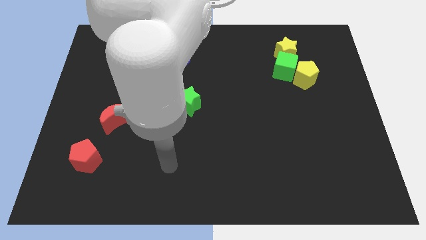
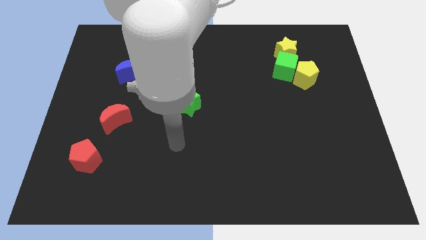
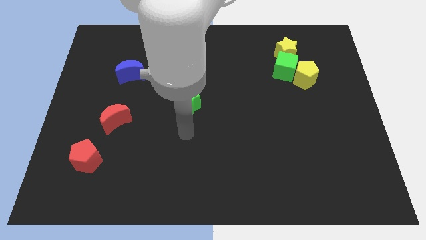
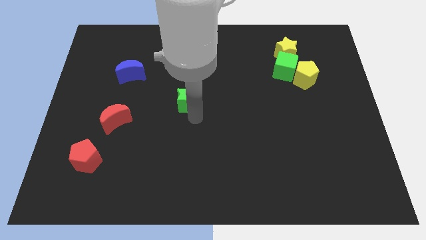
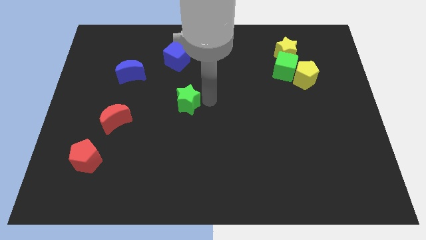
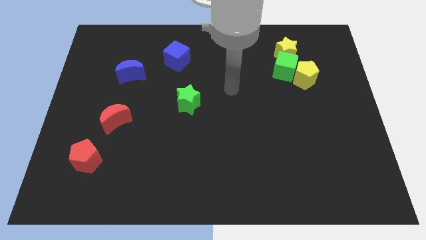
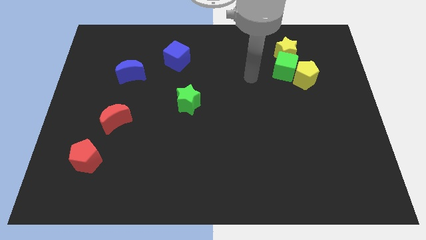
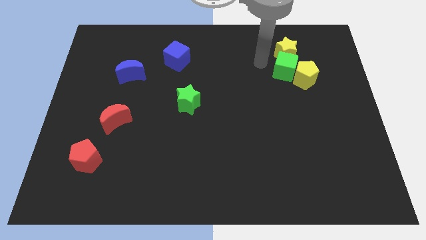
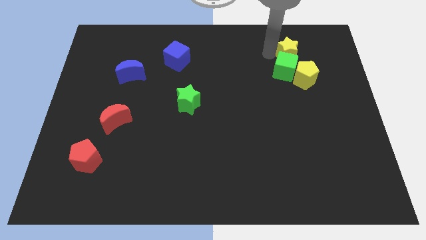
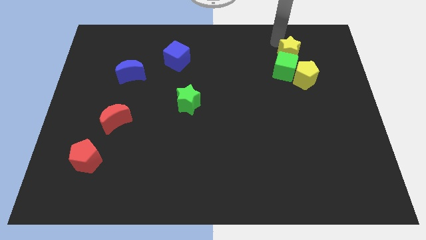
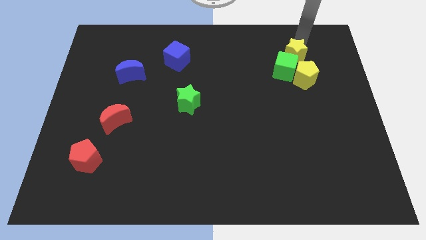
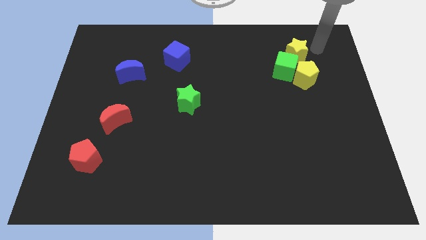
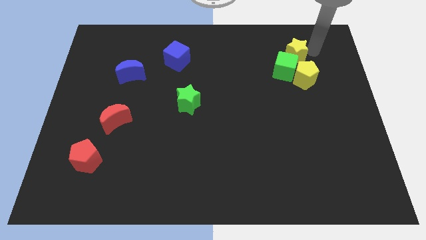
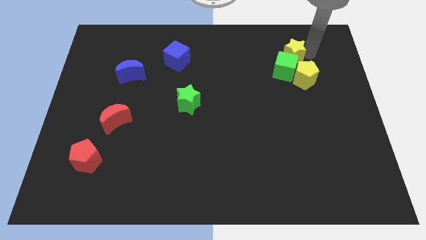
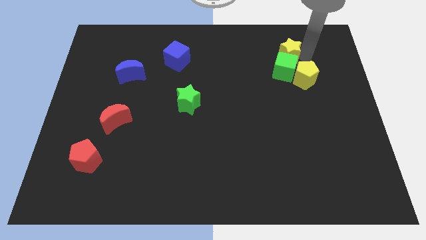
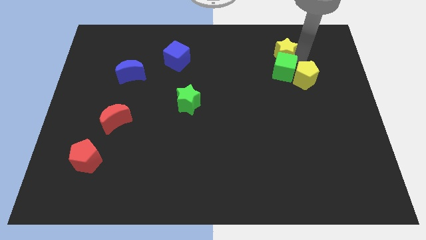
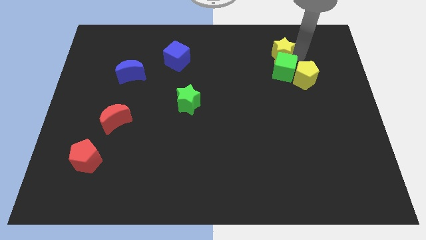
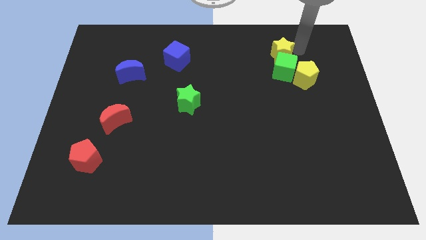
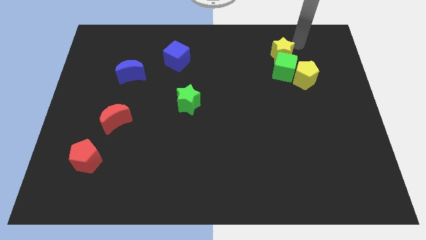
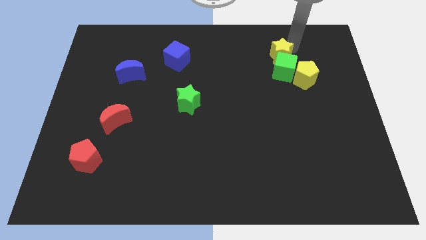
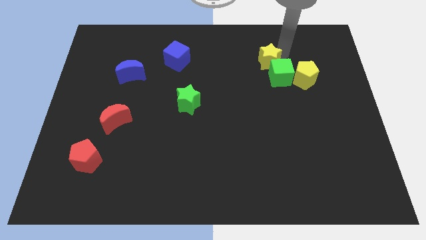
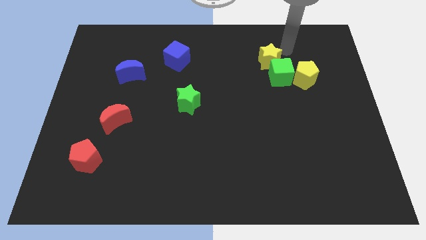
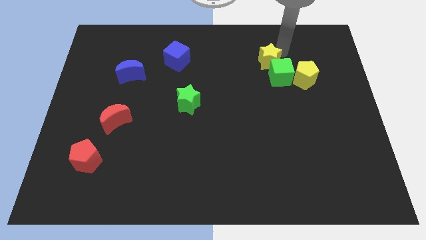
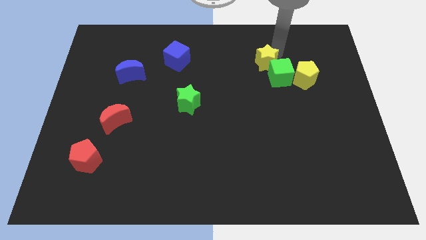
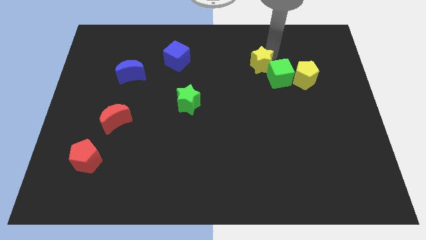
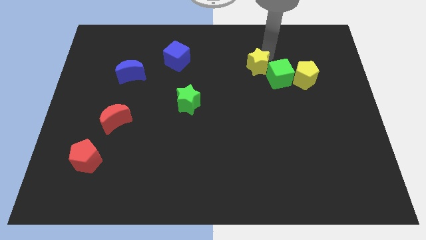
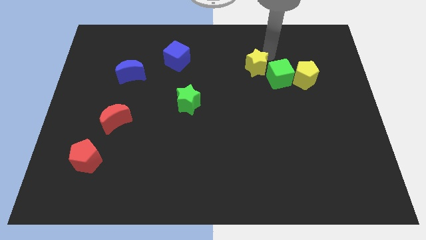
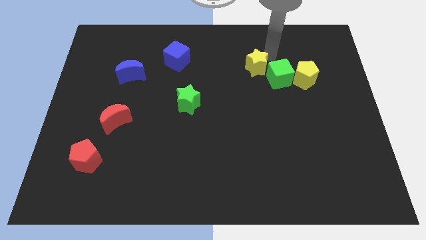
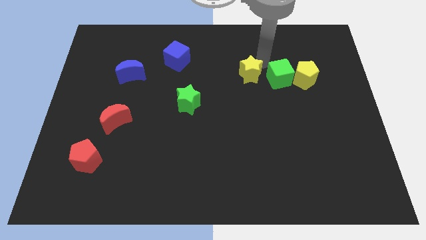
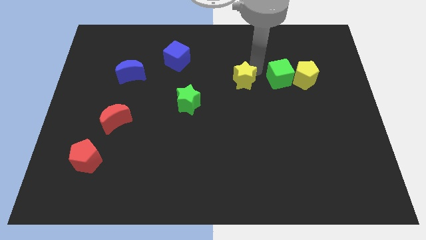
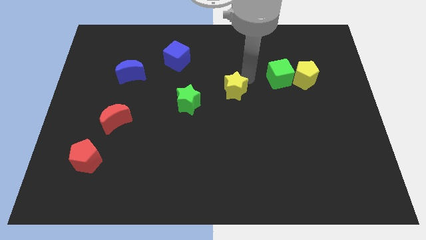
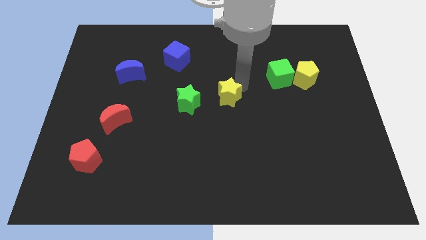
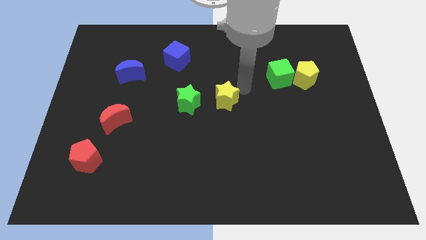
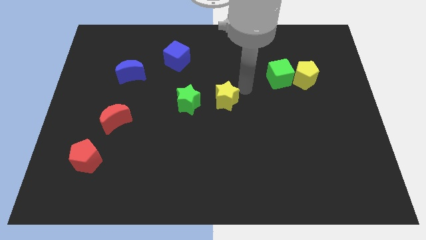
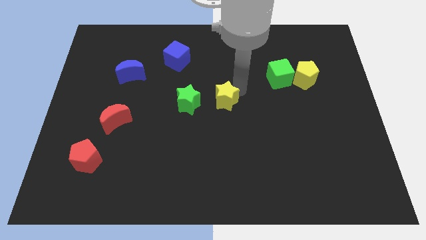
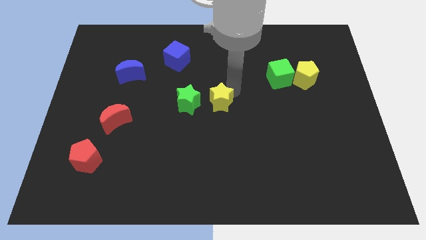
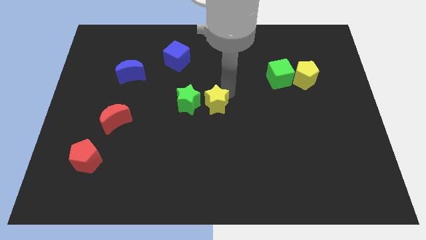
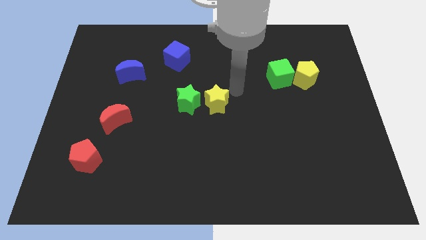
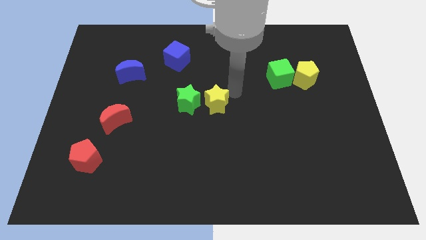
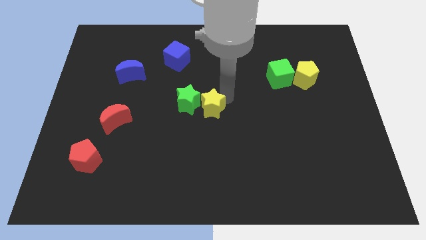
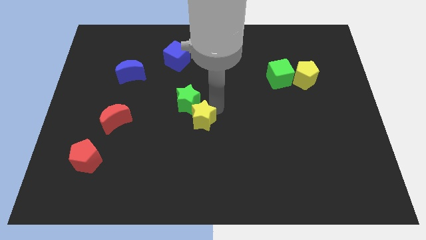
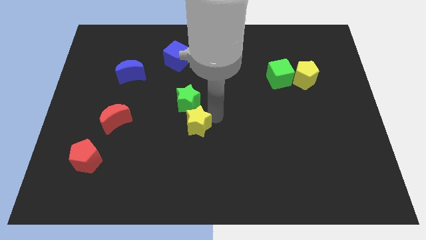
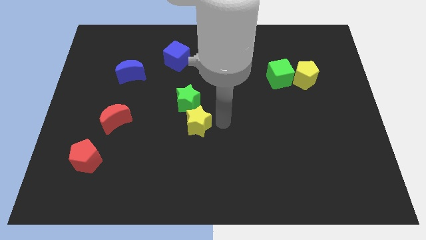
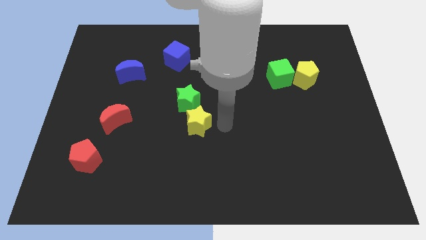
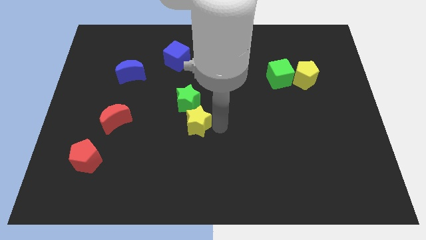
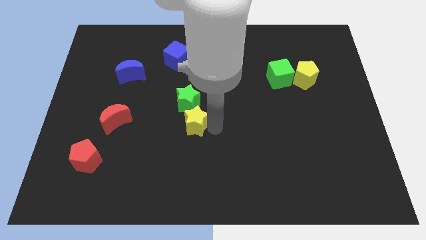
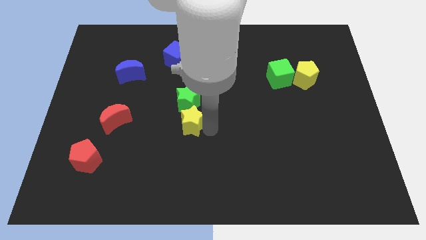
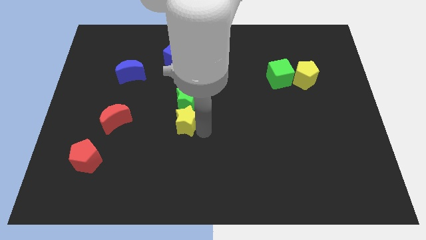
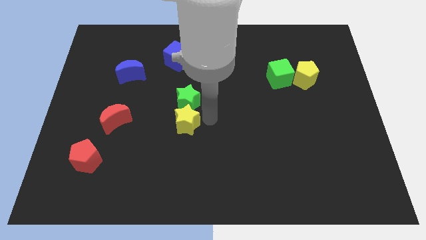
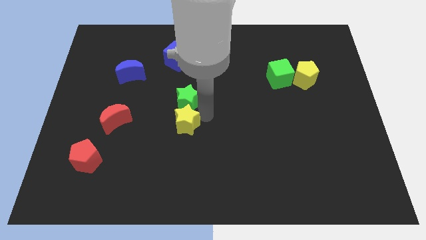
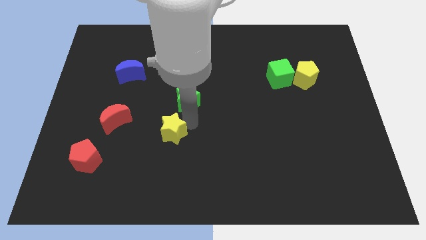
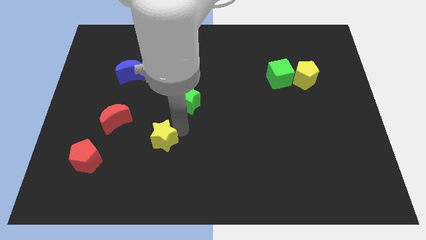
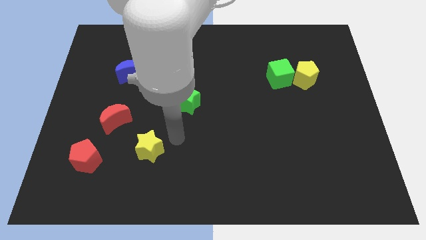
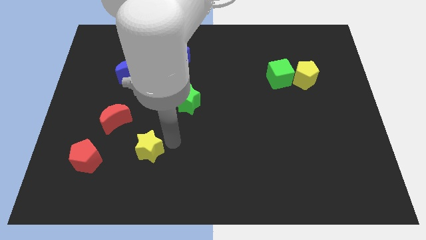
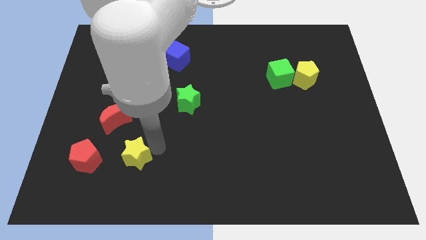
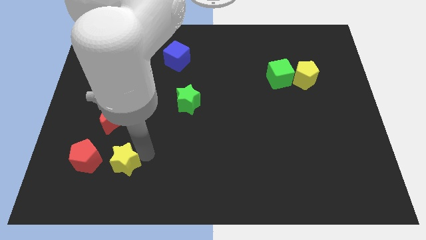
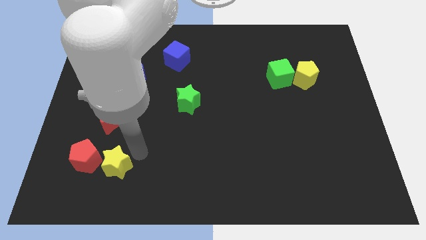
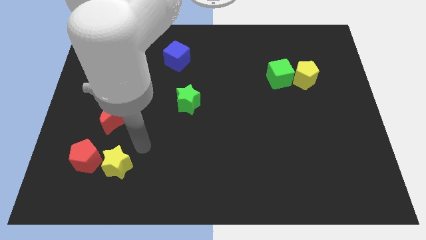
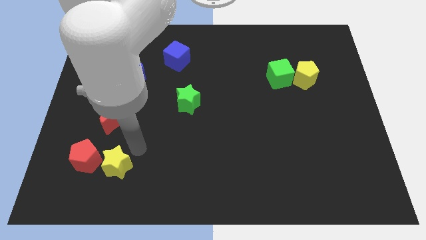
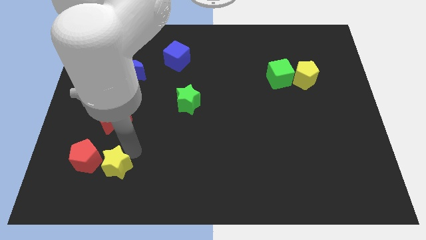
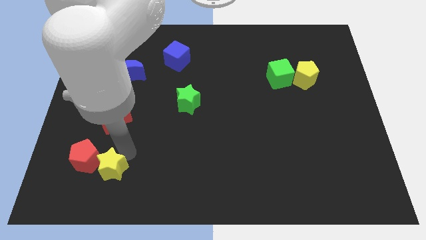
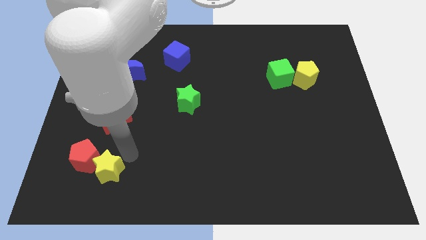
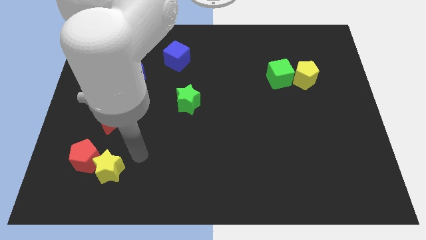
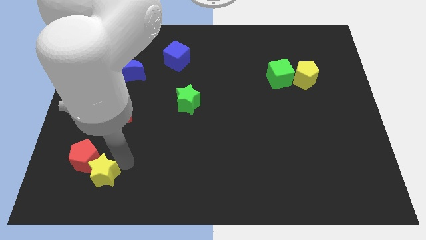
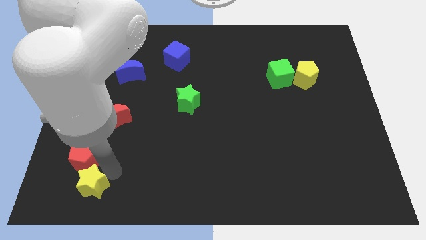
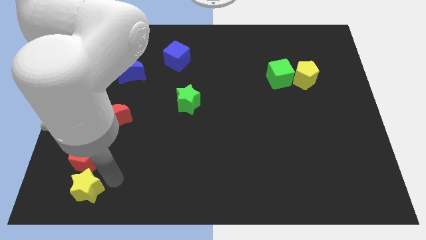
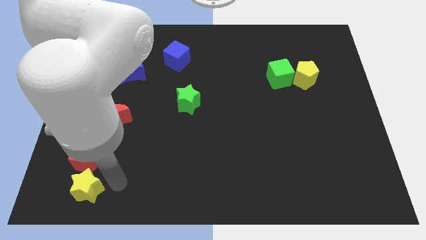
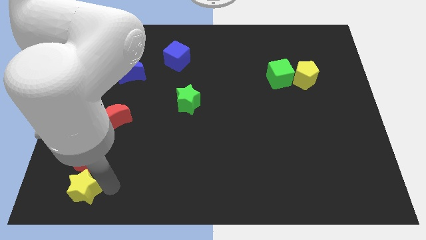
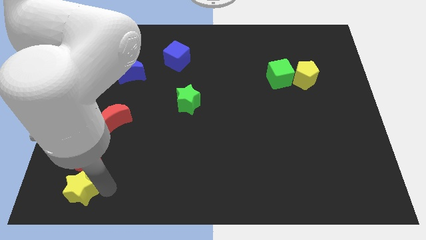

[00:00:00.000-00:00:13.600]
put the yellow star to the lower left corner
